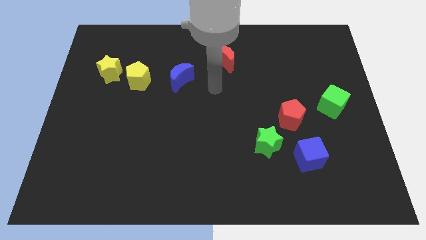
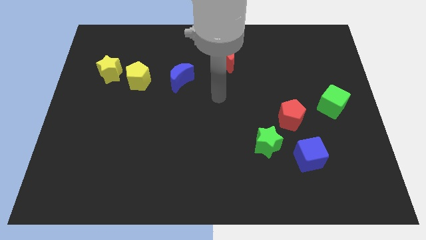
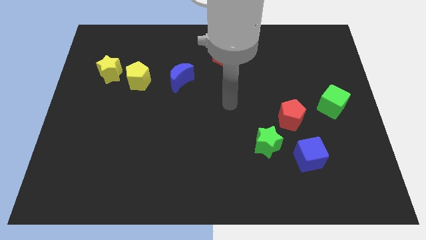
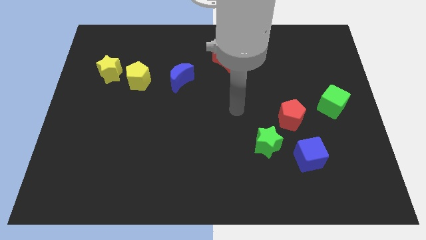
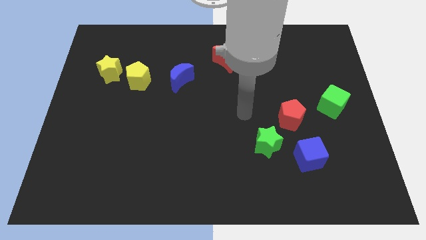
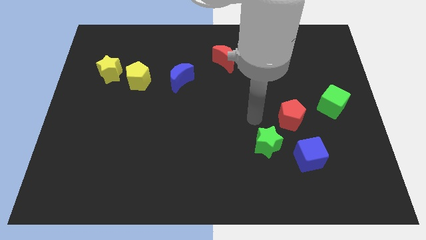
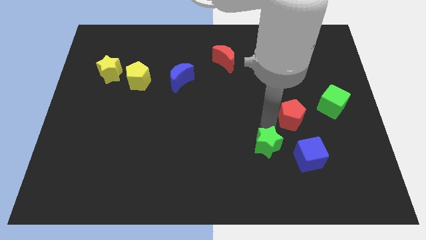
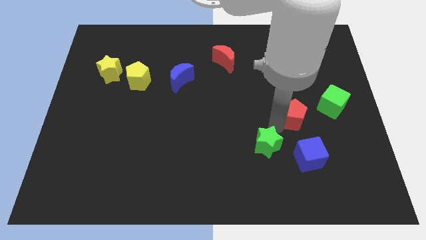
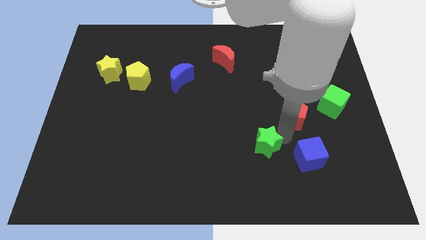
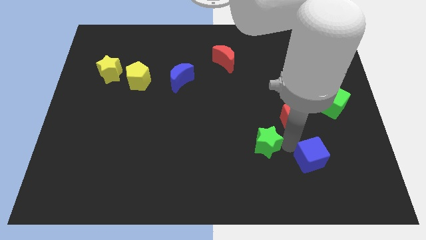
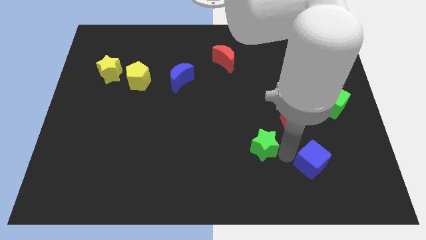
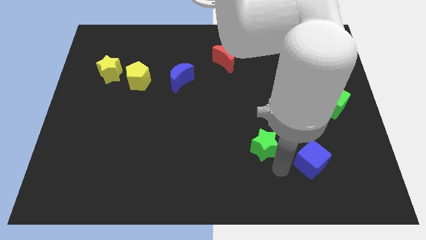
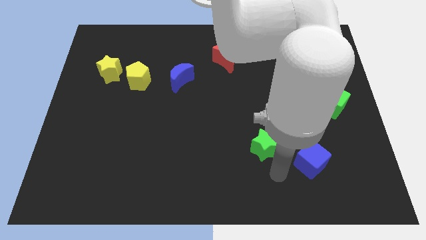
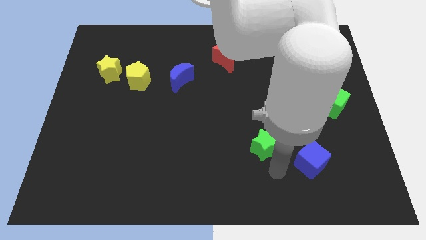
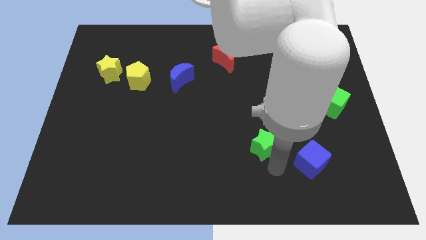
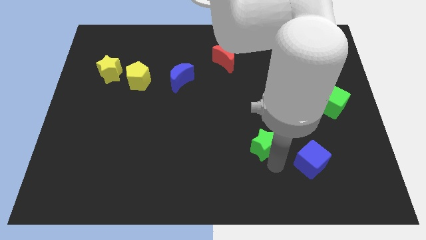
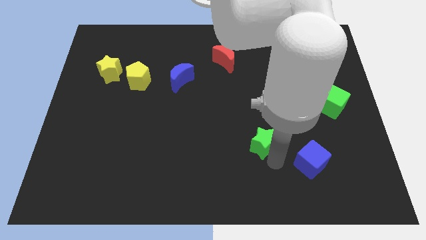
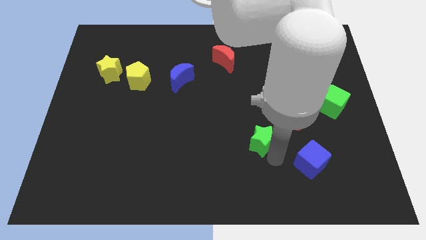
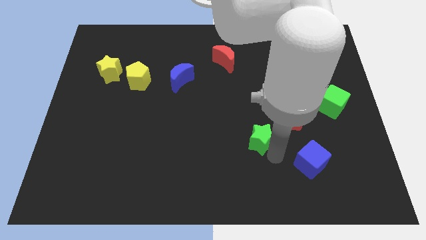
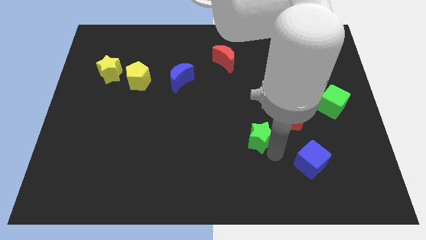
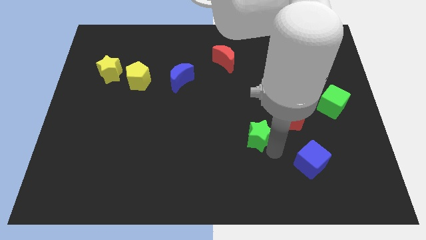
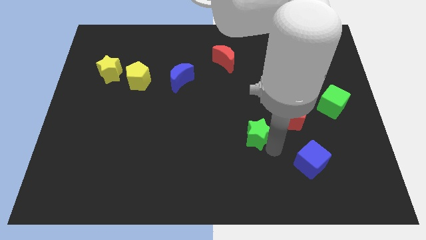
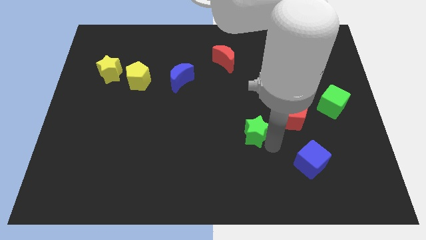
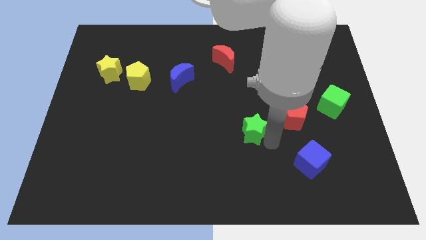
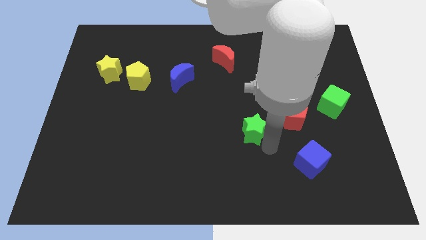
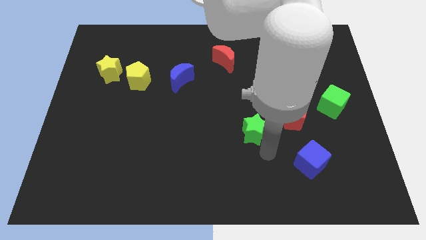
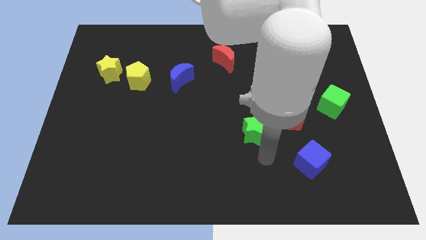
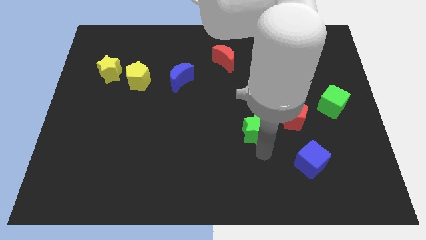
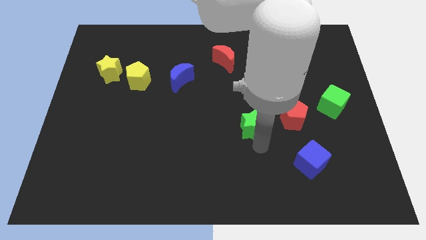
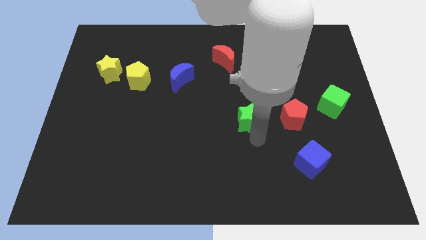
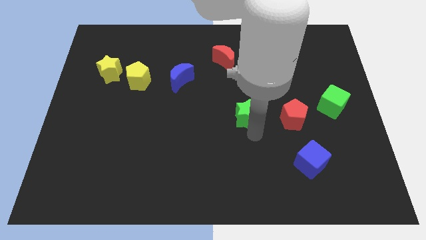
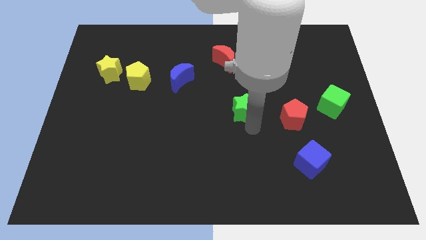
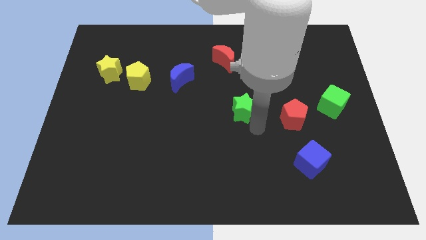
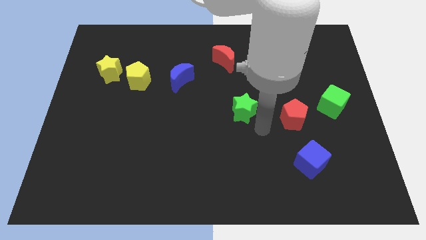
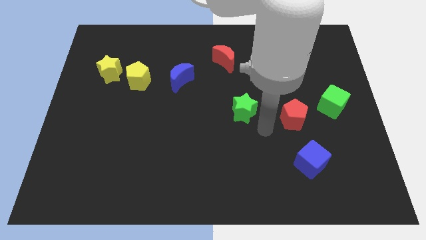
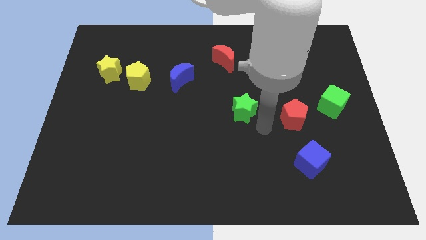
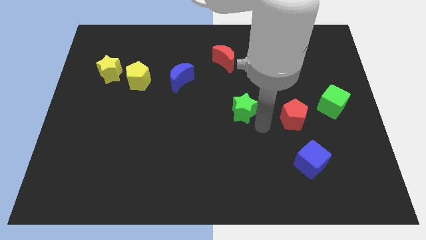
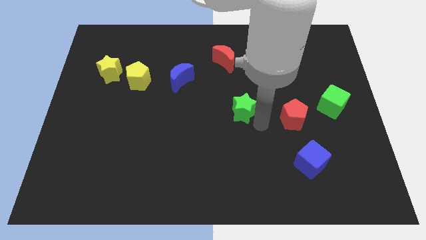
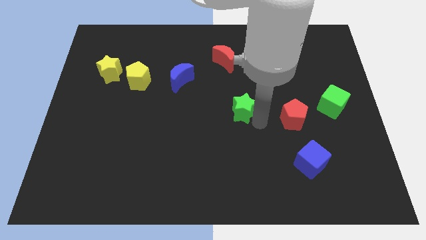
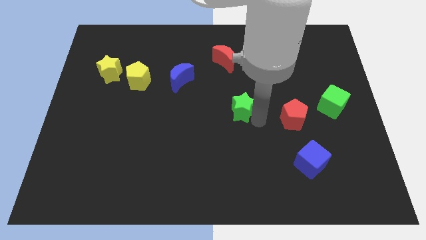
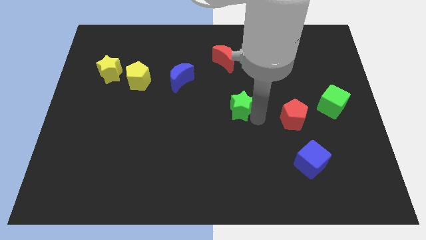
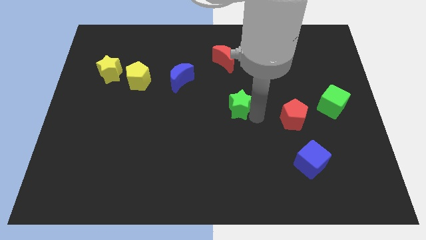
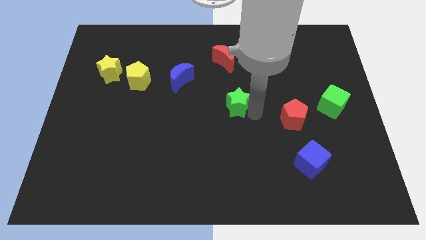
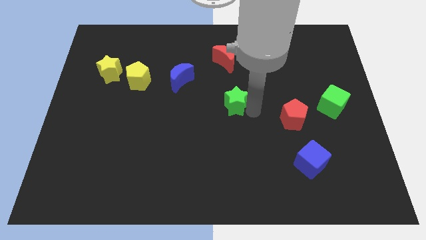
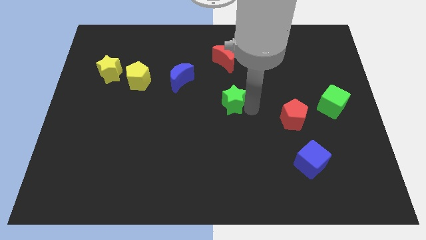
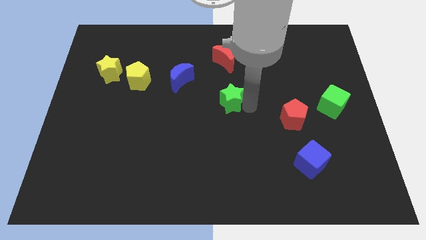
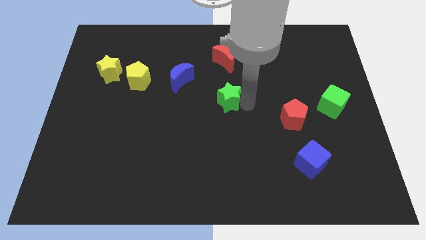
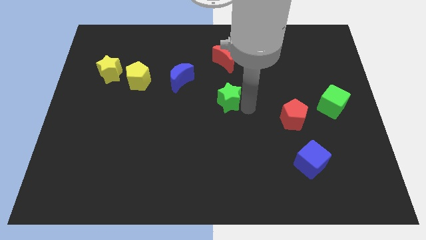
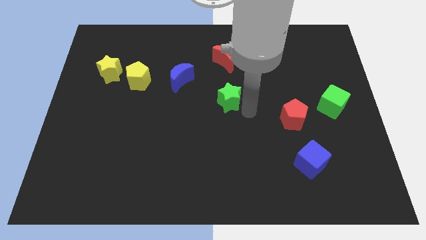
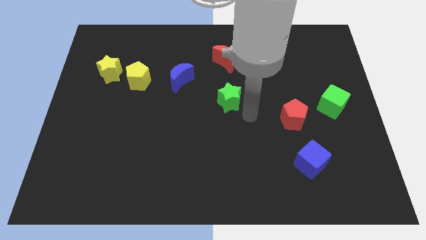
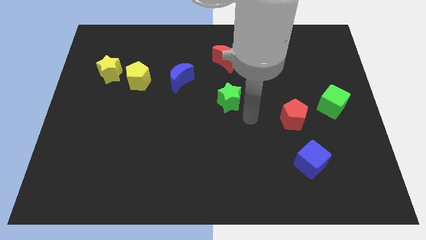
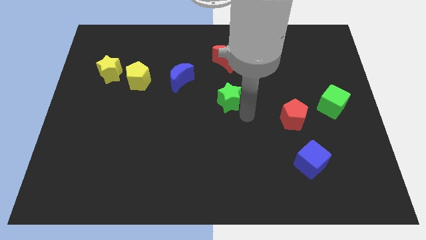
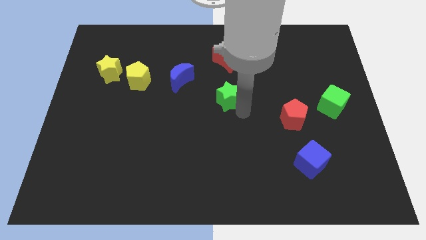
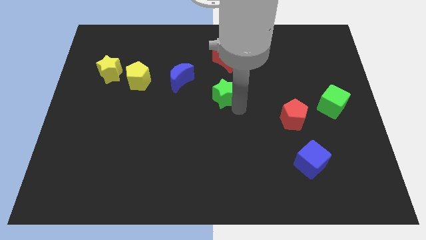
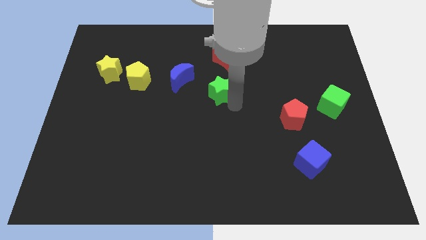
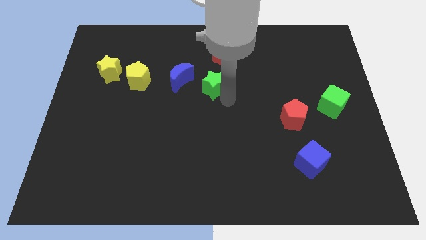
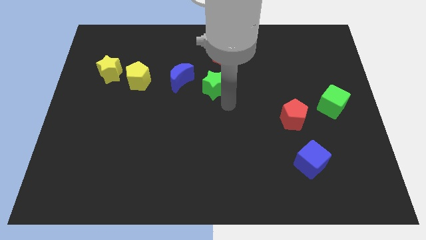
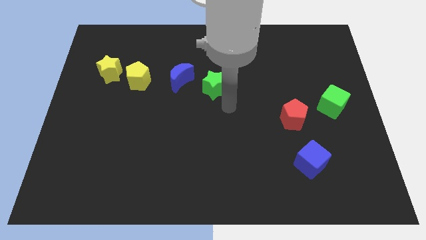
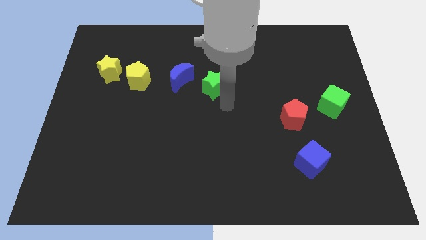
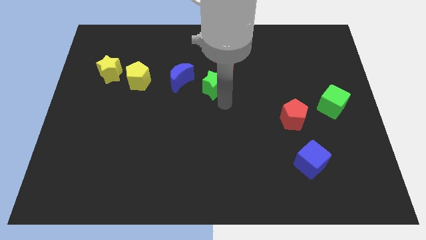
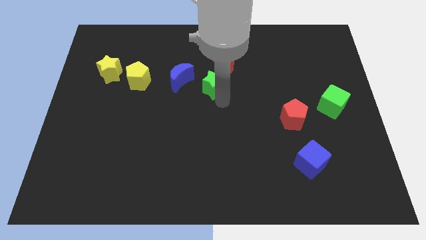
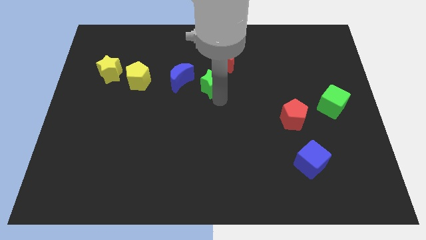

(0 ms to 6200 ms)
push the green star diagonally upwards and left

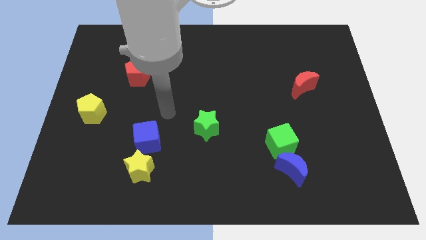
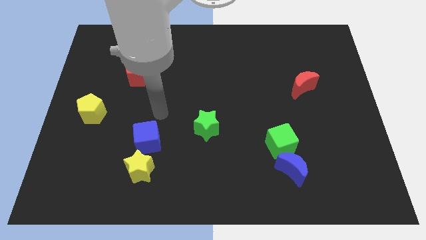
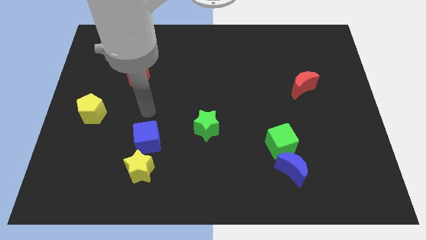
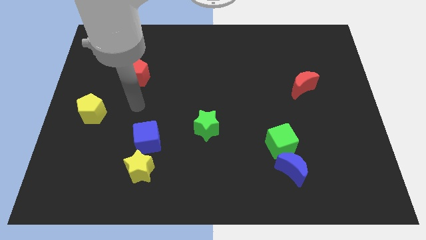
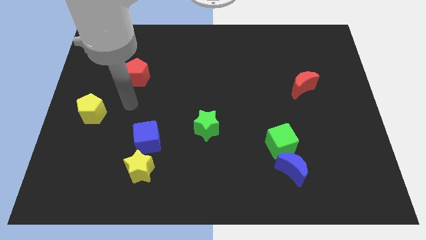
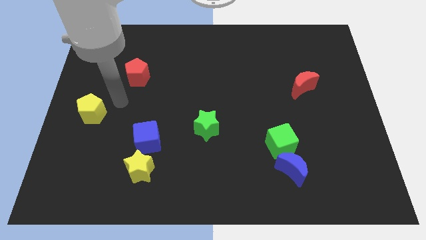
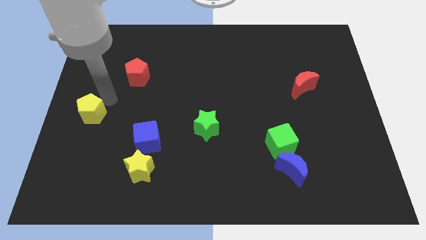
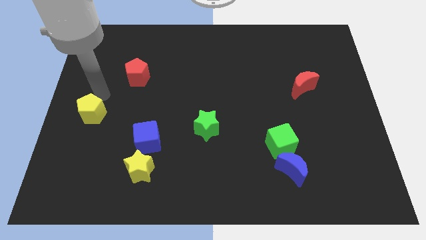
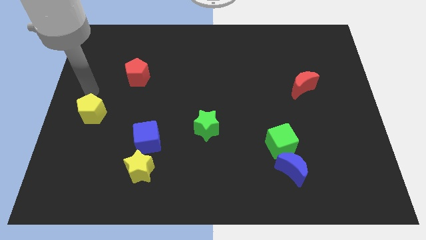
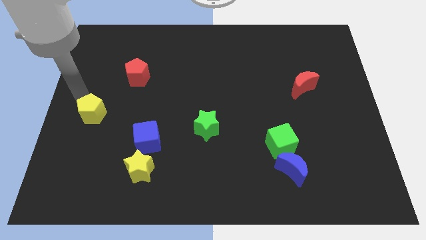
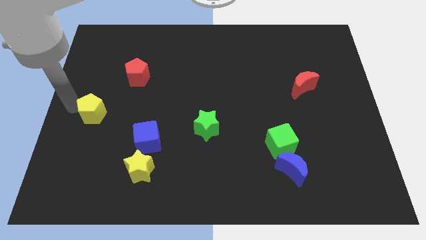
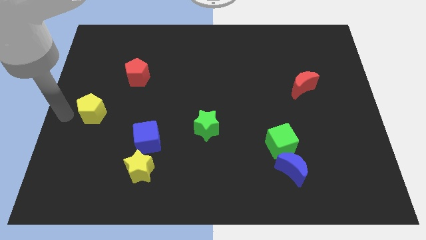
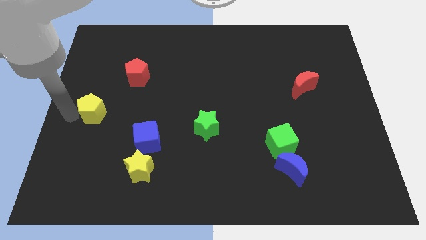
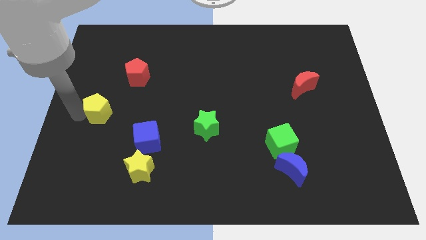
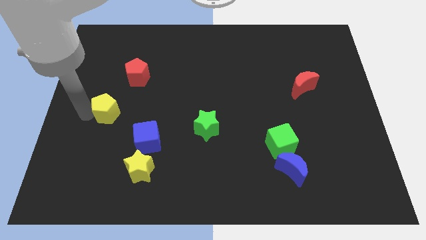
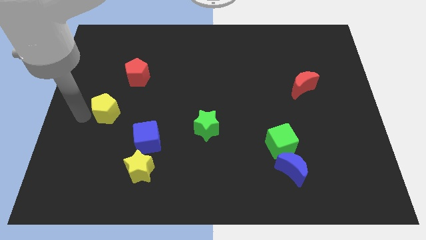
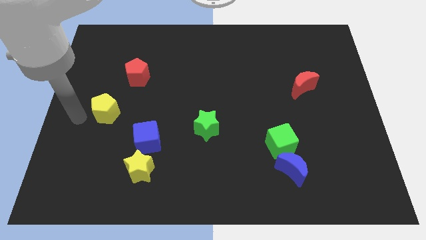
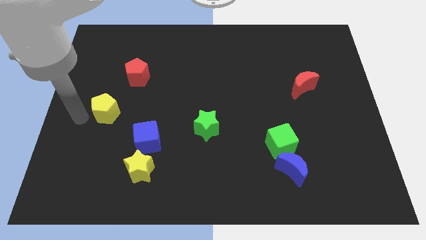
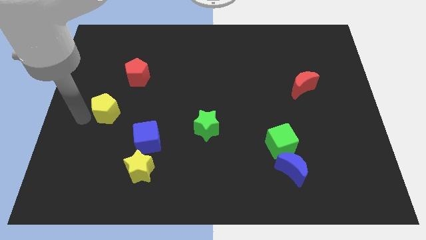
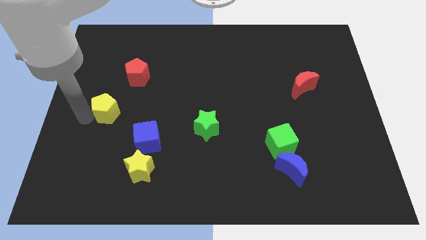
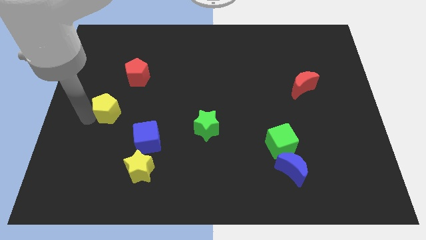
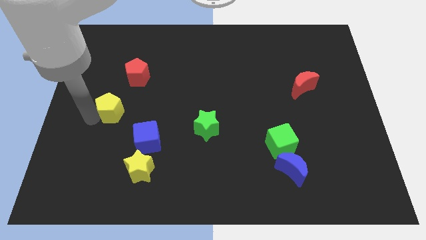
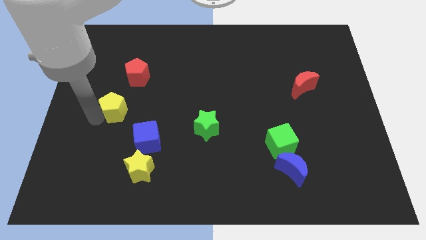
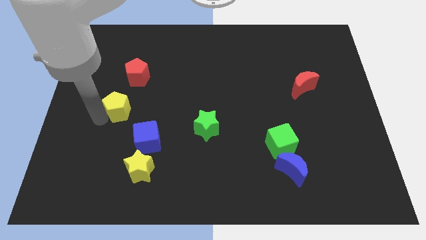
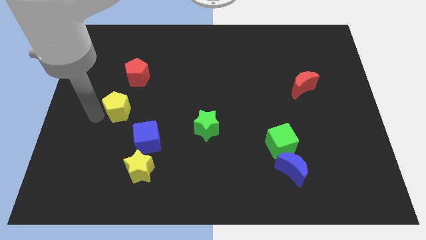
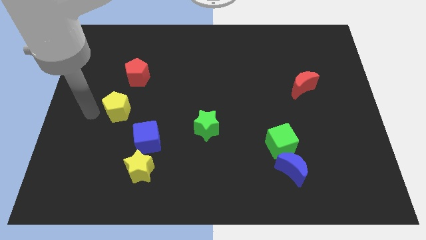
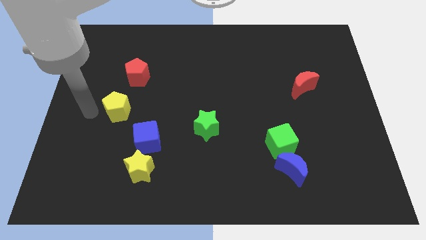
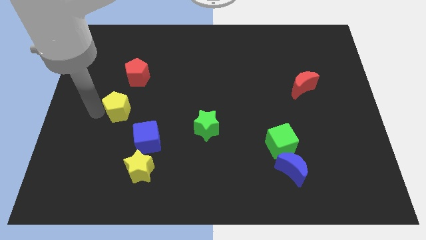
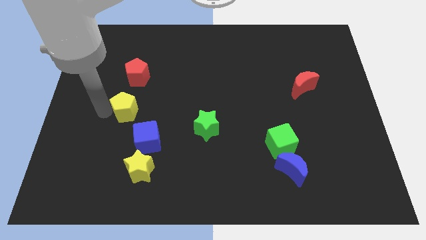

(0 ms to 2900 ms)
push the yellow pentagon right somewhat
